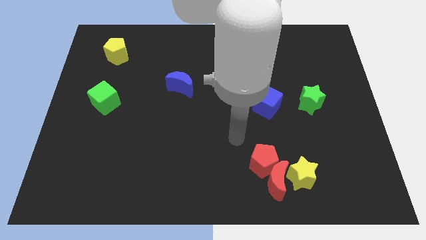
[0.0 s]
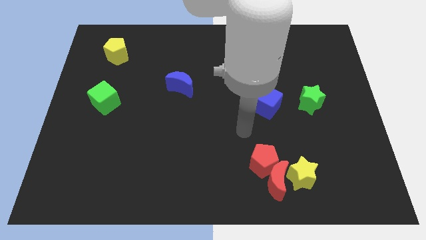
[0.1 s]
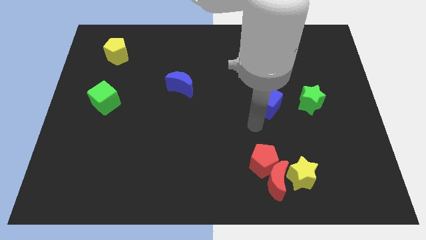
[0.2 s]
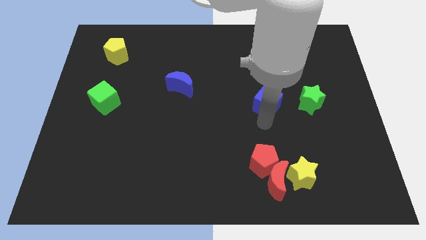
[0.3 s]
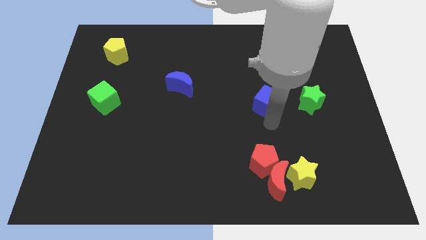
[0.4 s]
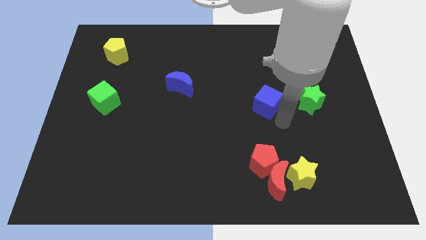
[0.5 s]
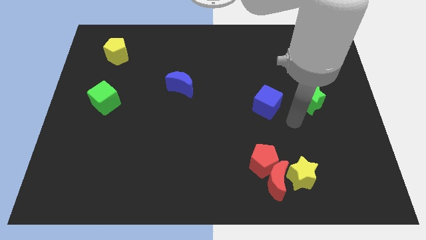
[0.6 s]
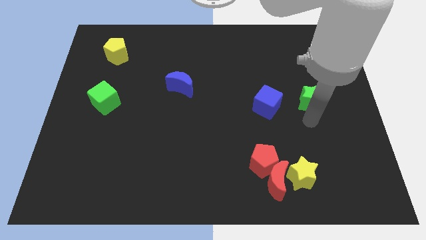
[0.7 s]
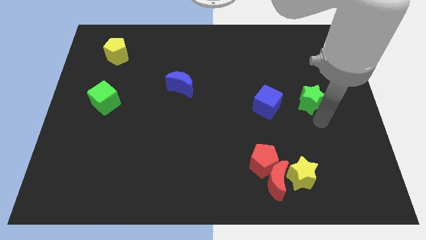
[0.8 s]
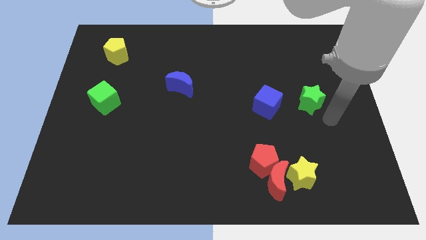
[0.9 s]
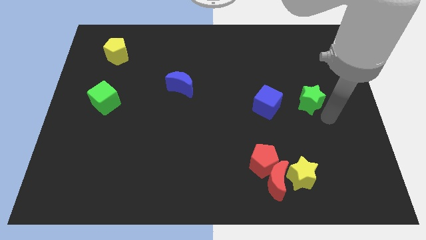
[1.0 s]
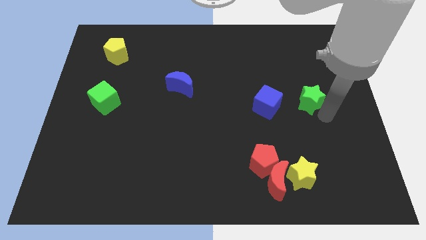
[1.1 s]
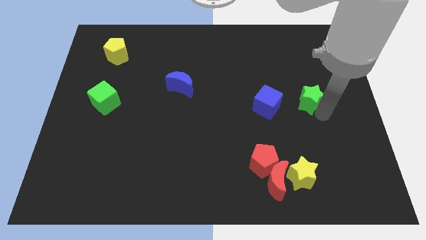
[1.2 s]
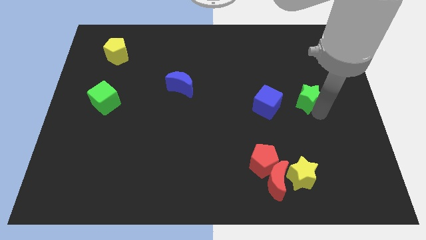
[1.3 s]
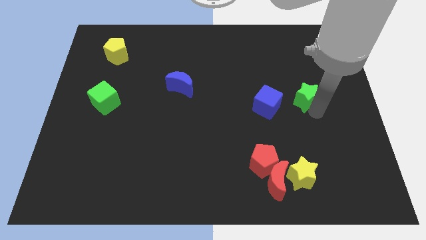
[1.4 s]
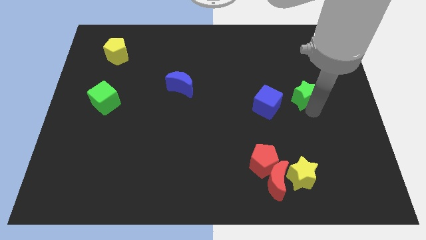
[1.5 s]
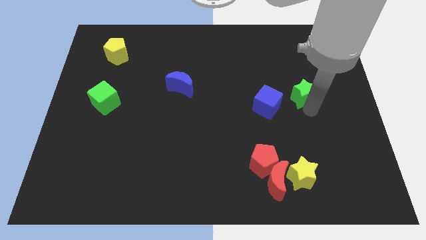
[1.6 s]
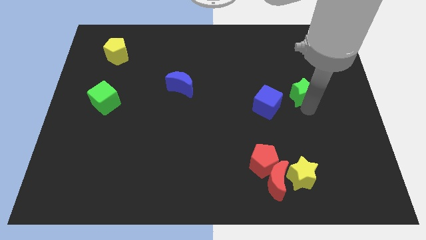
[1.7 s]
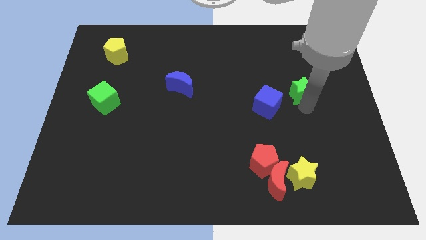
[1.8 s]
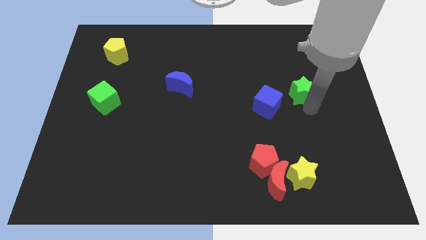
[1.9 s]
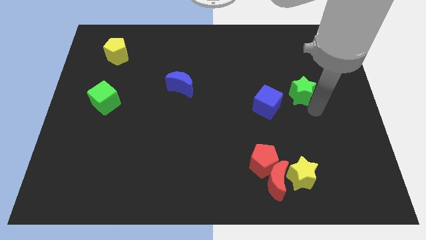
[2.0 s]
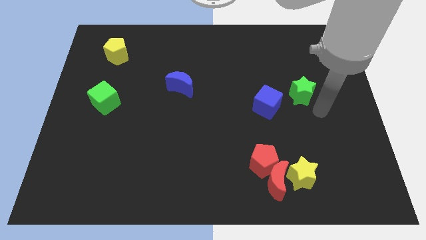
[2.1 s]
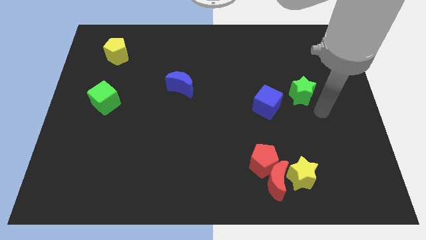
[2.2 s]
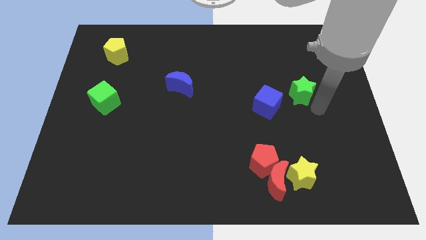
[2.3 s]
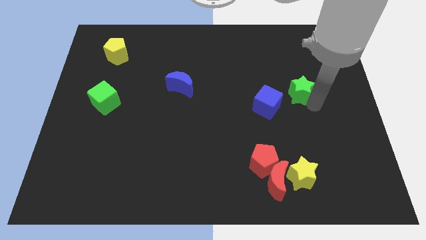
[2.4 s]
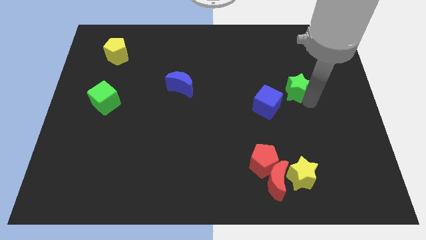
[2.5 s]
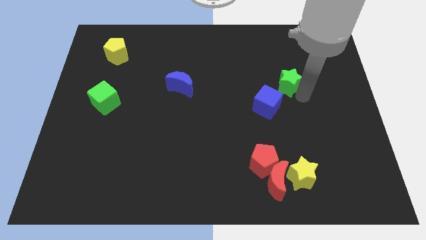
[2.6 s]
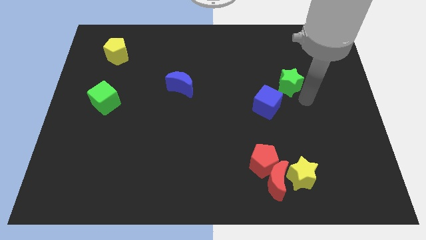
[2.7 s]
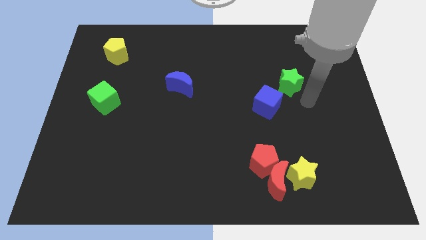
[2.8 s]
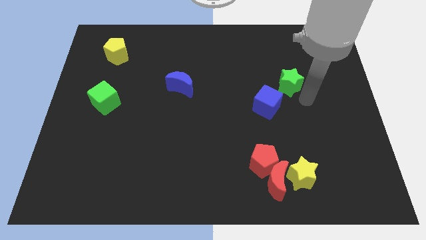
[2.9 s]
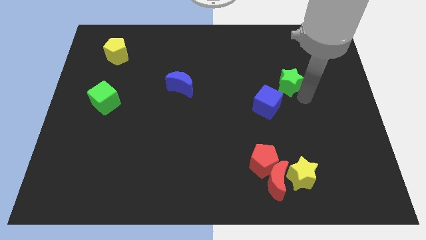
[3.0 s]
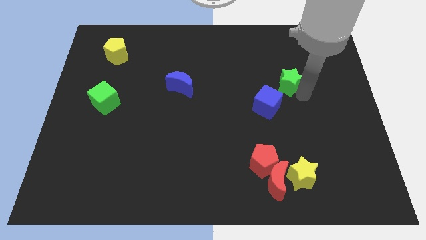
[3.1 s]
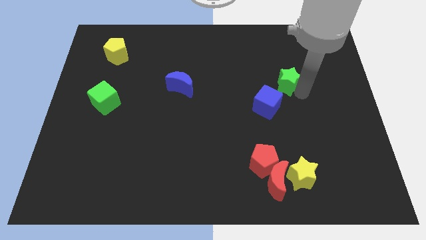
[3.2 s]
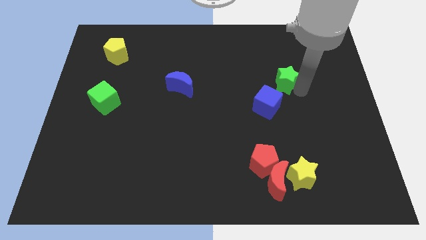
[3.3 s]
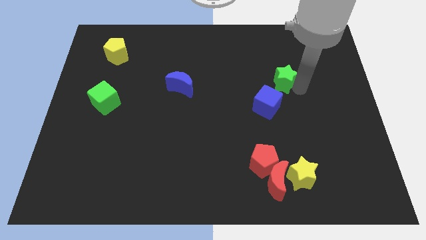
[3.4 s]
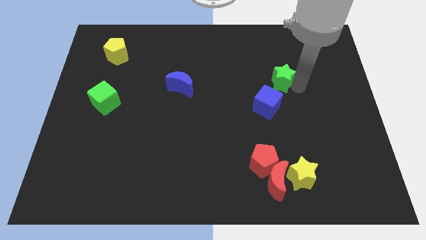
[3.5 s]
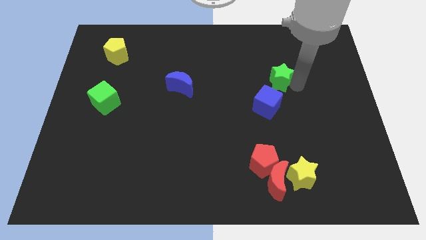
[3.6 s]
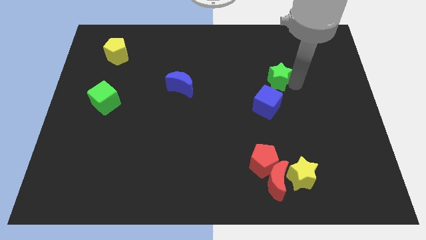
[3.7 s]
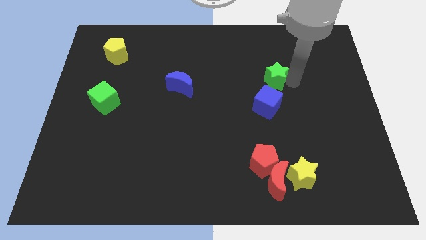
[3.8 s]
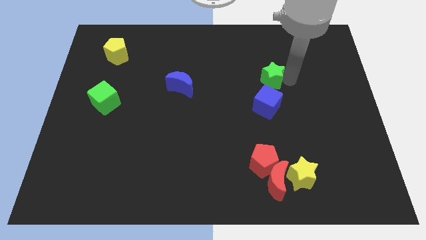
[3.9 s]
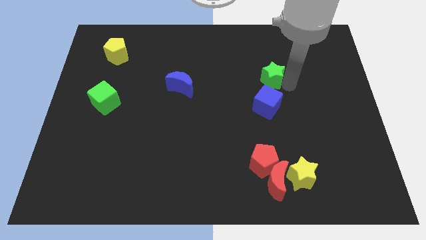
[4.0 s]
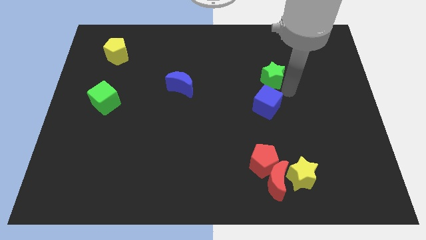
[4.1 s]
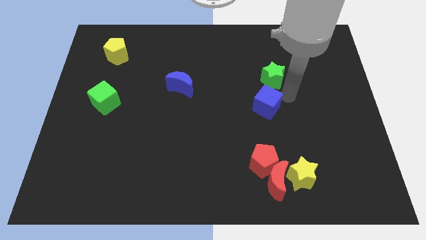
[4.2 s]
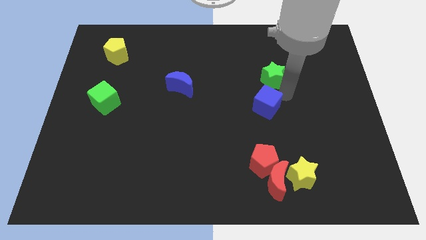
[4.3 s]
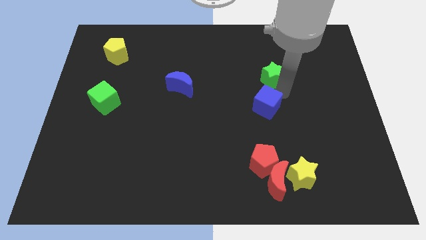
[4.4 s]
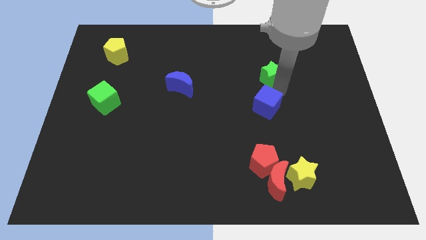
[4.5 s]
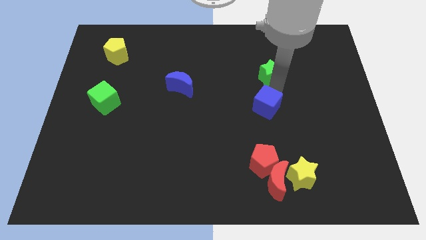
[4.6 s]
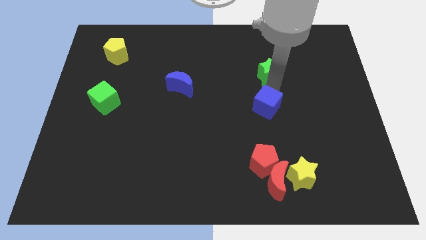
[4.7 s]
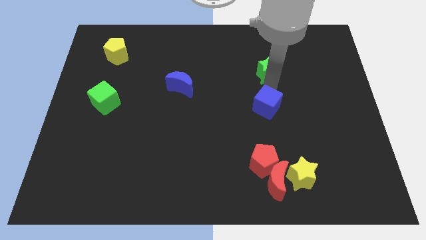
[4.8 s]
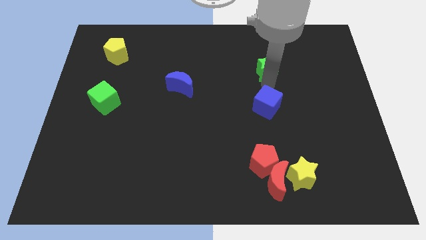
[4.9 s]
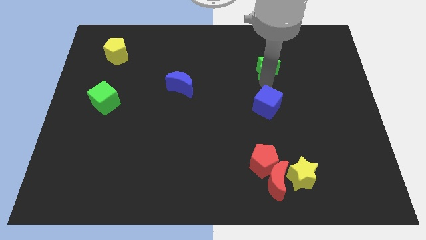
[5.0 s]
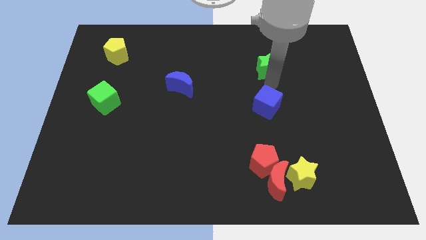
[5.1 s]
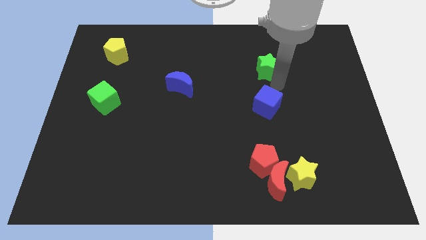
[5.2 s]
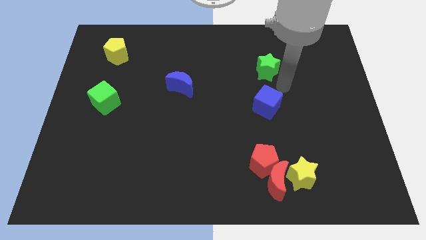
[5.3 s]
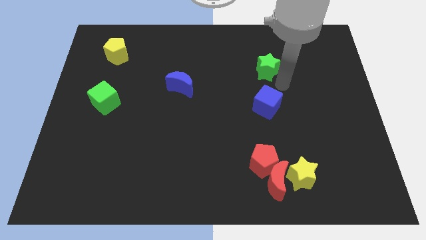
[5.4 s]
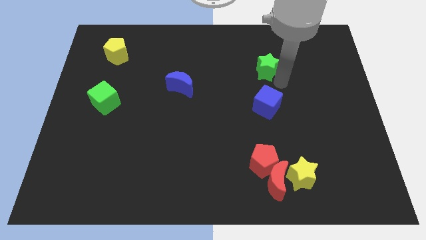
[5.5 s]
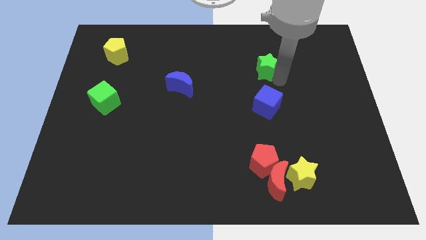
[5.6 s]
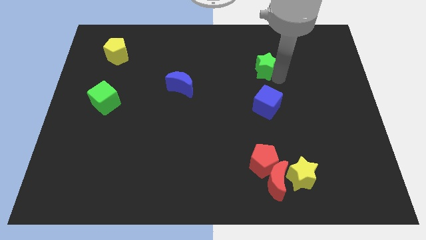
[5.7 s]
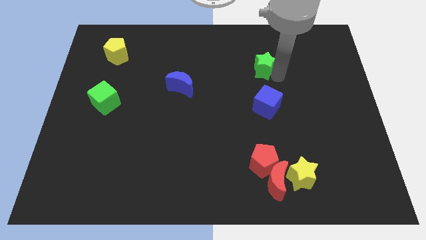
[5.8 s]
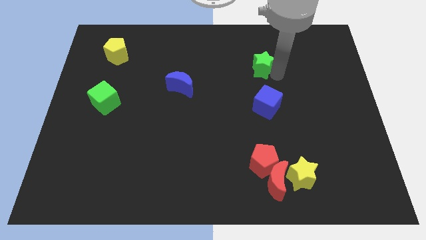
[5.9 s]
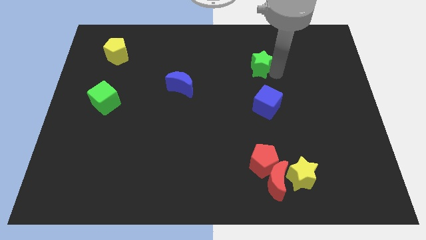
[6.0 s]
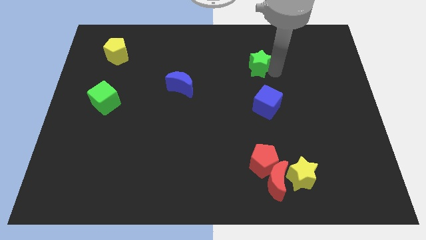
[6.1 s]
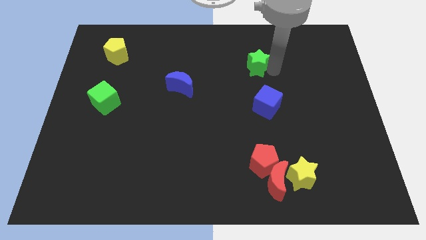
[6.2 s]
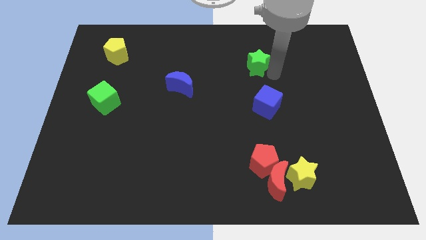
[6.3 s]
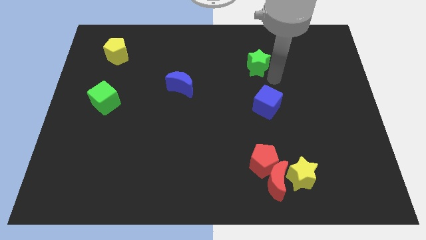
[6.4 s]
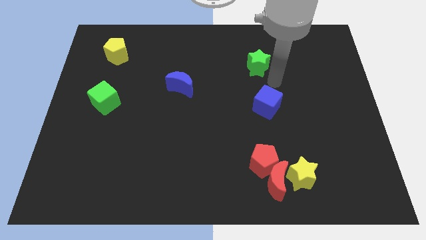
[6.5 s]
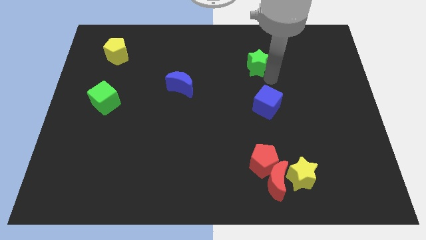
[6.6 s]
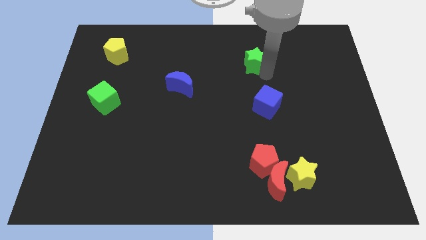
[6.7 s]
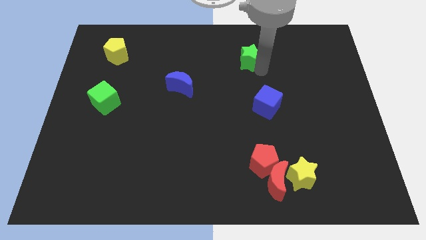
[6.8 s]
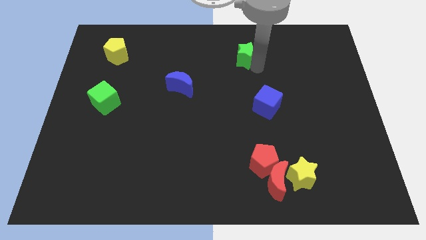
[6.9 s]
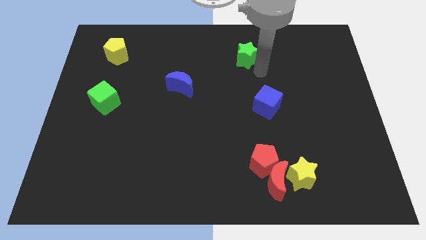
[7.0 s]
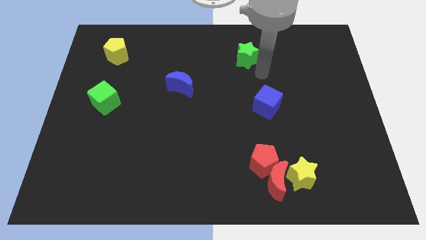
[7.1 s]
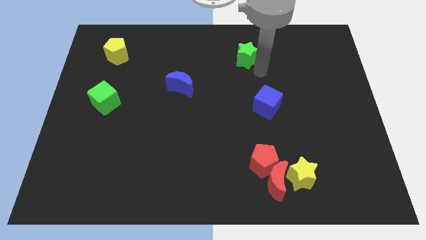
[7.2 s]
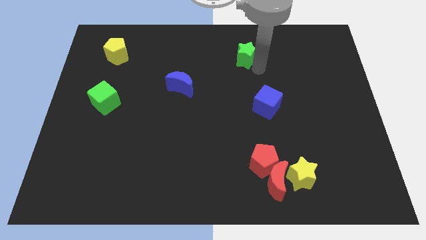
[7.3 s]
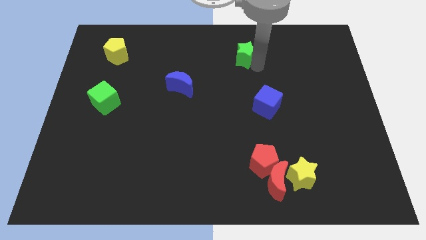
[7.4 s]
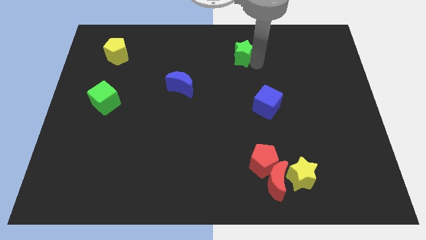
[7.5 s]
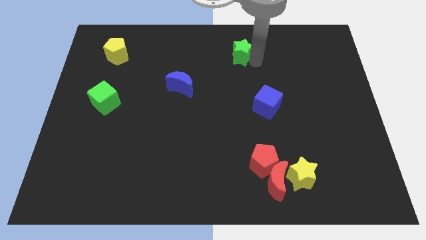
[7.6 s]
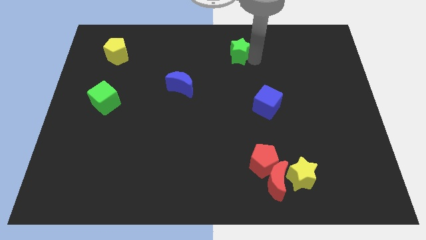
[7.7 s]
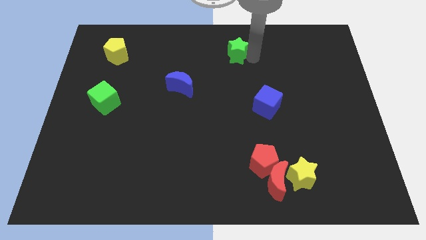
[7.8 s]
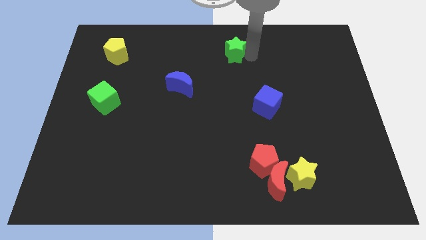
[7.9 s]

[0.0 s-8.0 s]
move the green star to the towards your base
